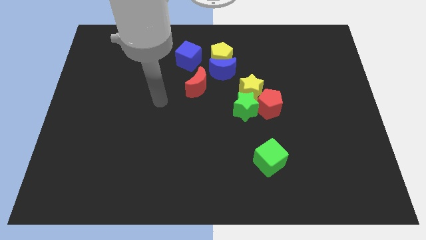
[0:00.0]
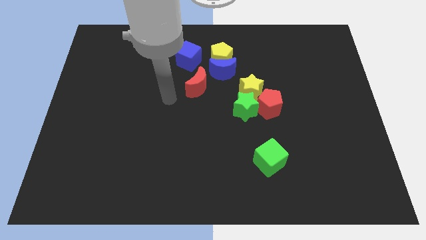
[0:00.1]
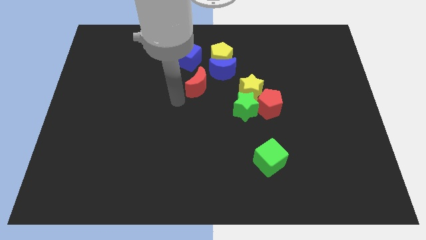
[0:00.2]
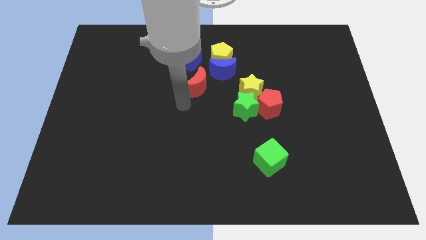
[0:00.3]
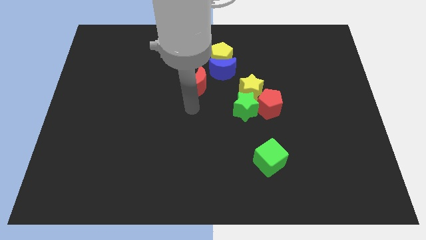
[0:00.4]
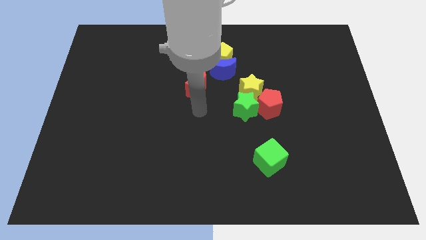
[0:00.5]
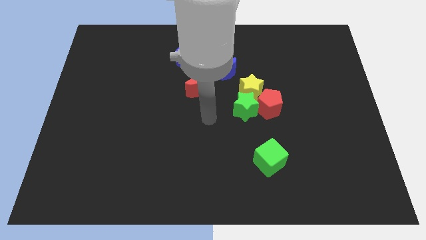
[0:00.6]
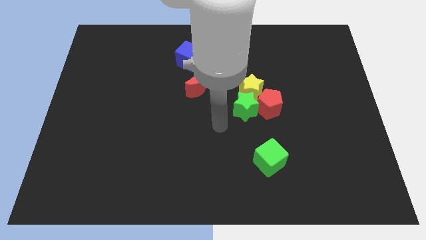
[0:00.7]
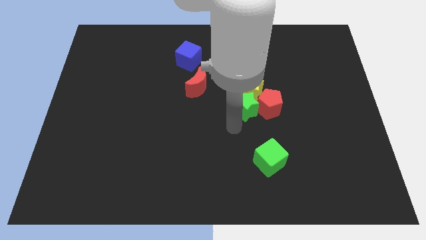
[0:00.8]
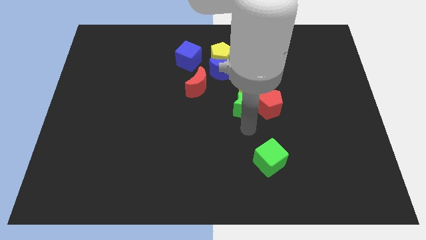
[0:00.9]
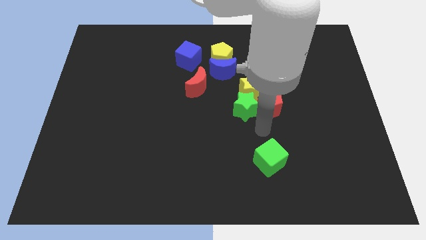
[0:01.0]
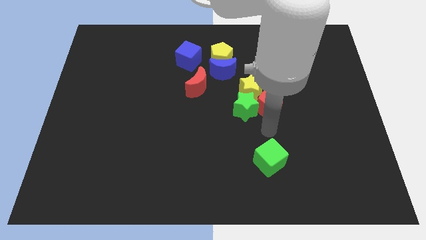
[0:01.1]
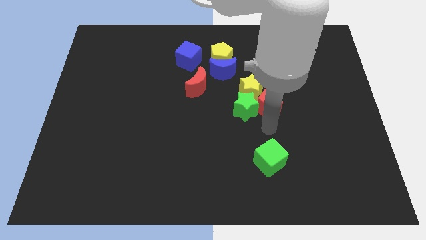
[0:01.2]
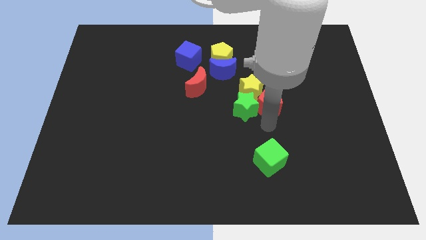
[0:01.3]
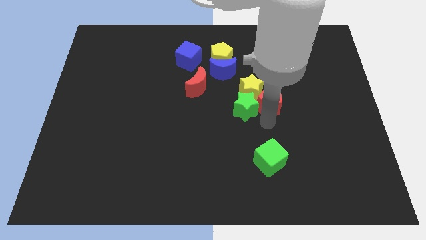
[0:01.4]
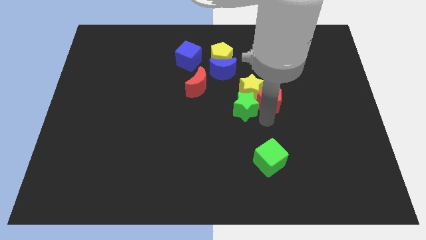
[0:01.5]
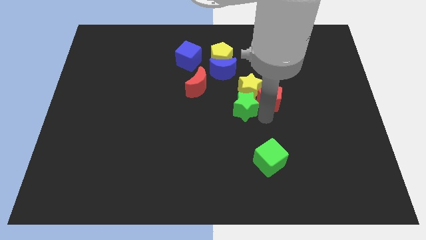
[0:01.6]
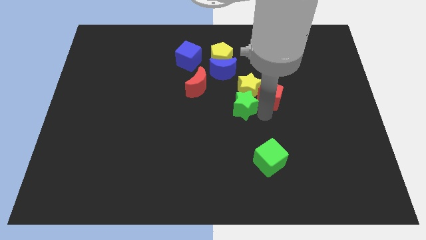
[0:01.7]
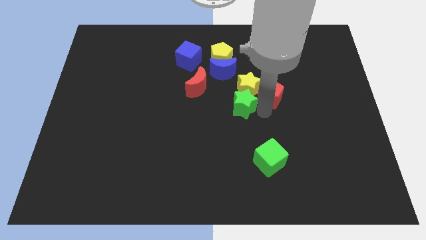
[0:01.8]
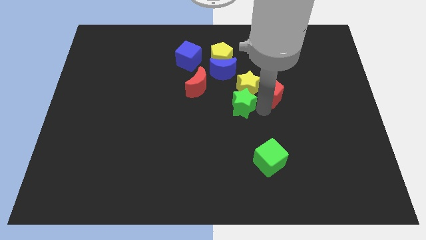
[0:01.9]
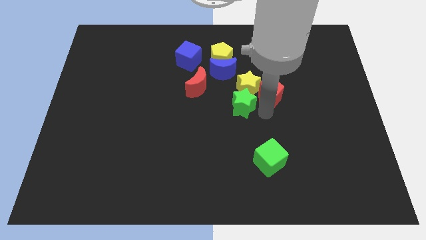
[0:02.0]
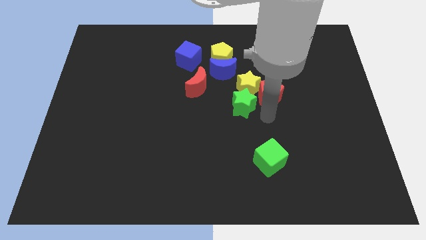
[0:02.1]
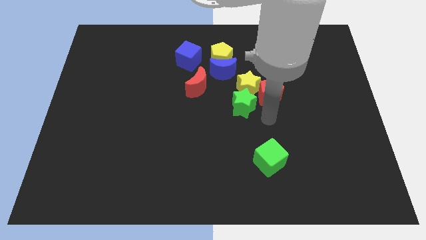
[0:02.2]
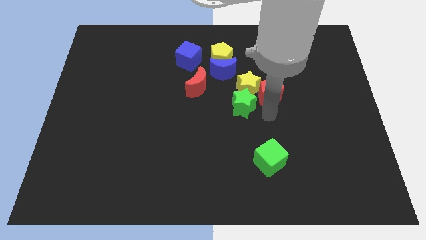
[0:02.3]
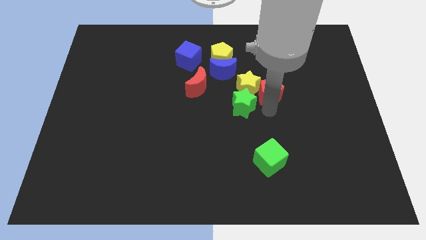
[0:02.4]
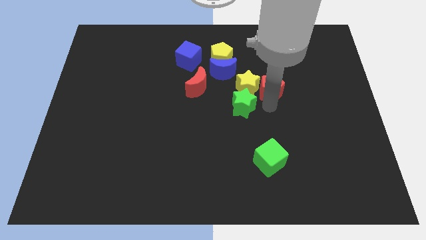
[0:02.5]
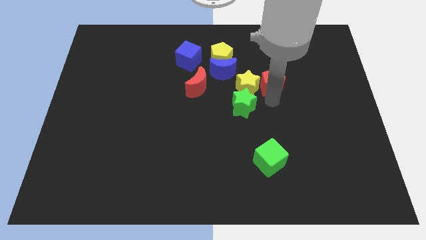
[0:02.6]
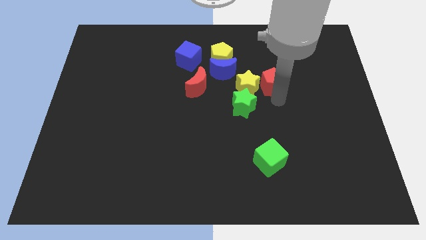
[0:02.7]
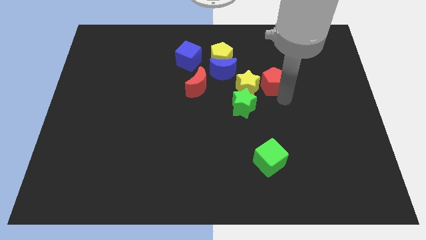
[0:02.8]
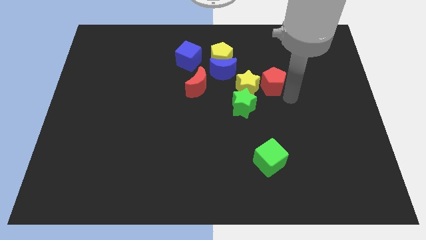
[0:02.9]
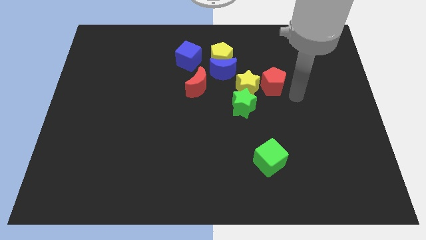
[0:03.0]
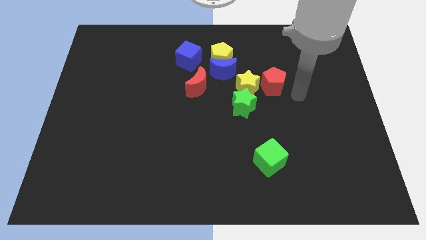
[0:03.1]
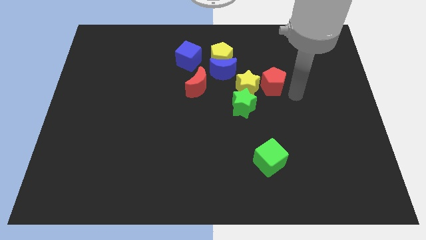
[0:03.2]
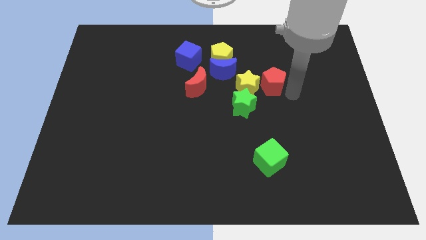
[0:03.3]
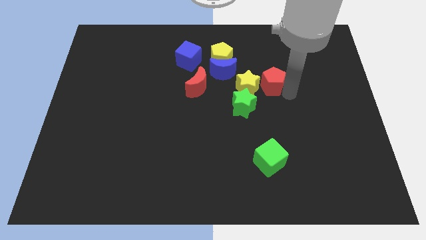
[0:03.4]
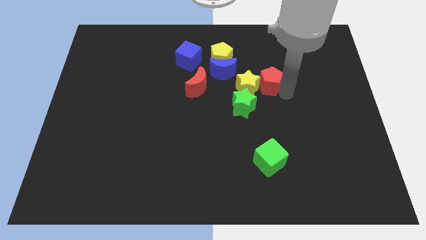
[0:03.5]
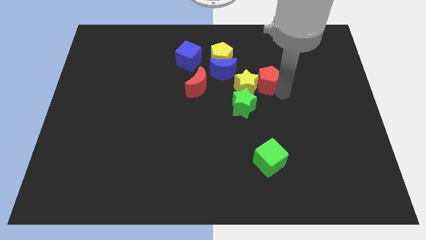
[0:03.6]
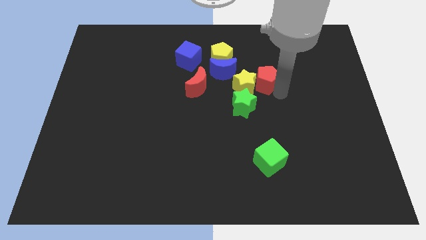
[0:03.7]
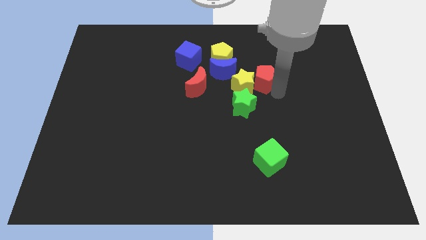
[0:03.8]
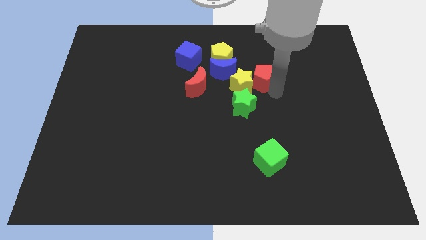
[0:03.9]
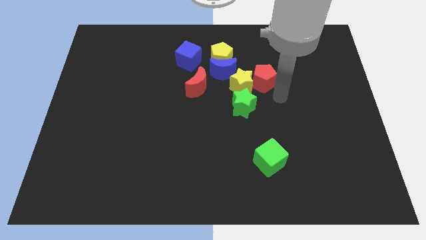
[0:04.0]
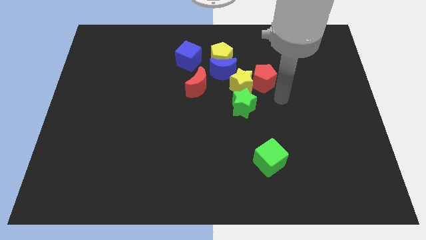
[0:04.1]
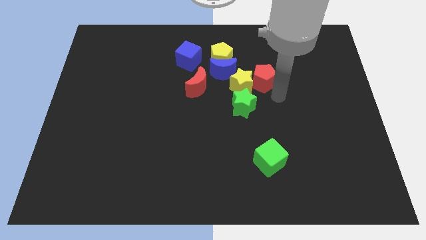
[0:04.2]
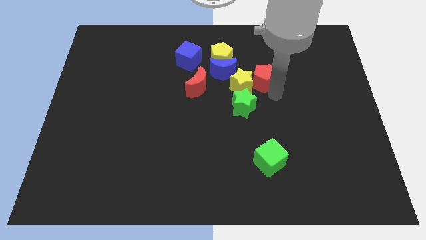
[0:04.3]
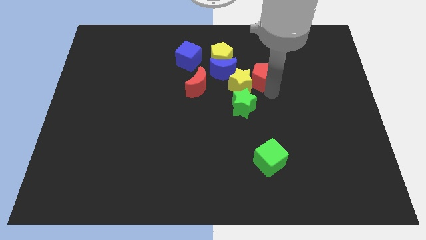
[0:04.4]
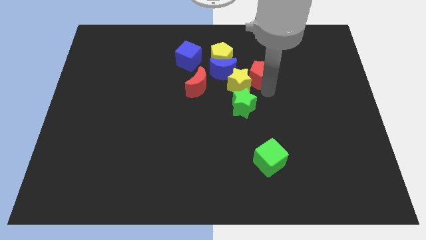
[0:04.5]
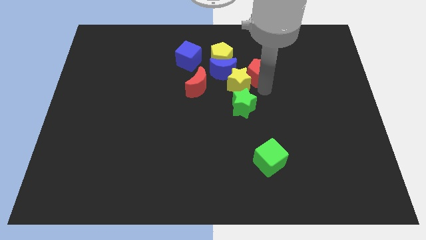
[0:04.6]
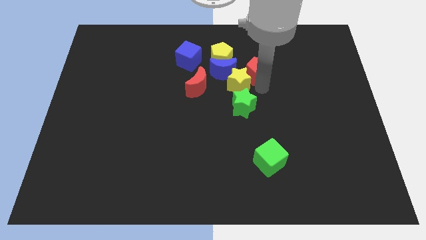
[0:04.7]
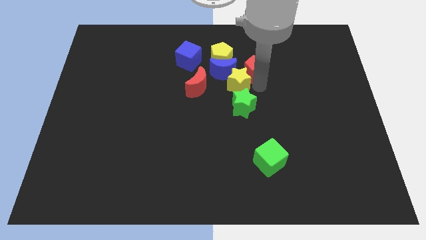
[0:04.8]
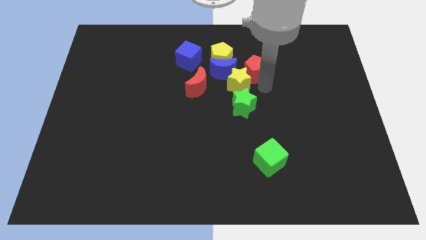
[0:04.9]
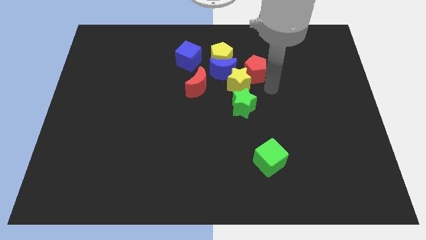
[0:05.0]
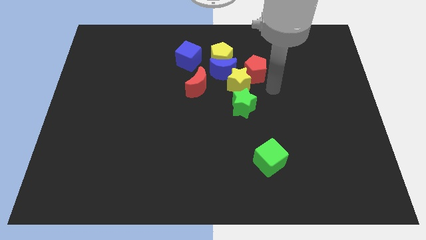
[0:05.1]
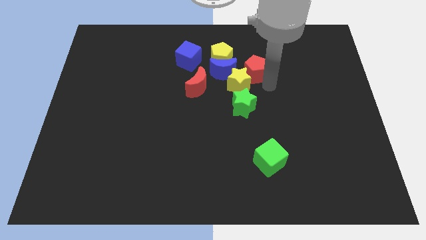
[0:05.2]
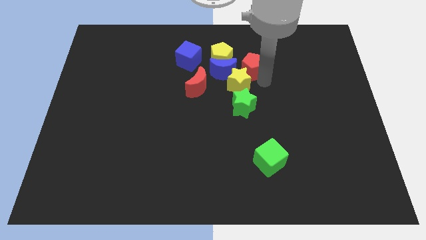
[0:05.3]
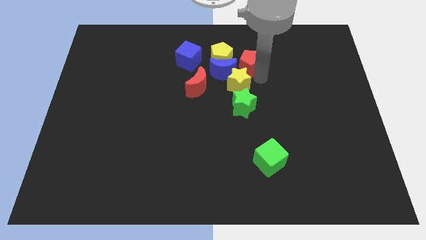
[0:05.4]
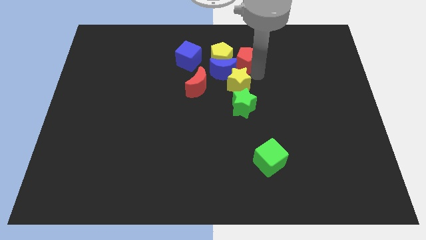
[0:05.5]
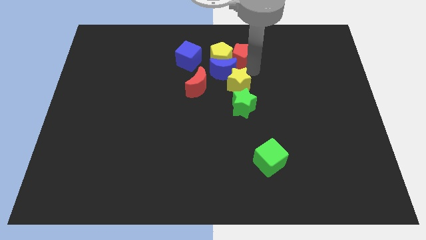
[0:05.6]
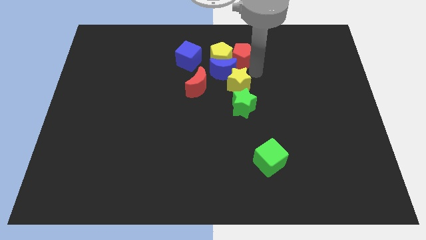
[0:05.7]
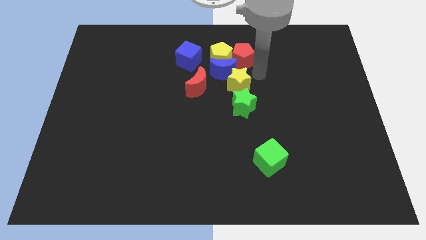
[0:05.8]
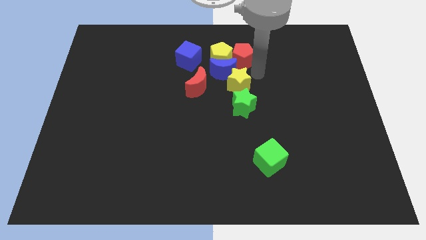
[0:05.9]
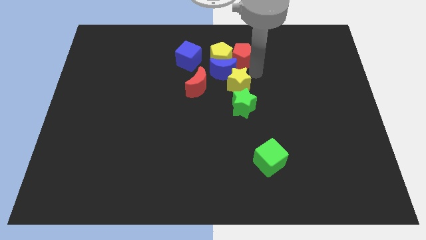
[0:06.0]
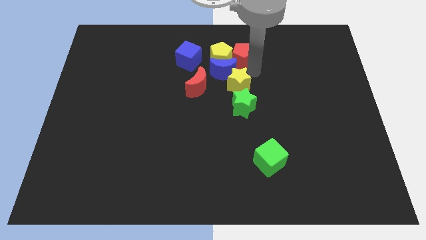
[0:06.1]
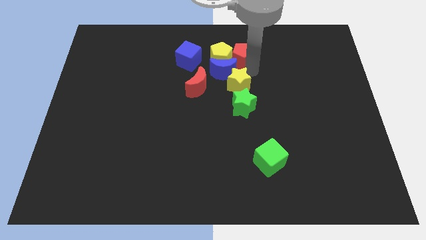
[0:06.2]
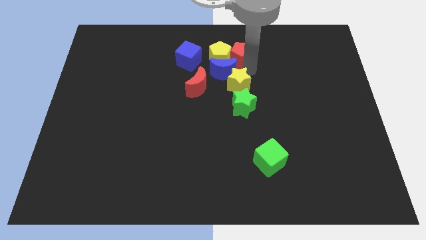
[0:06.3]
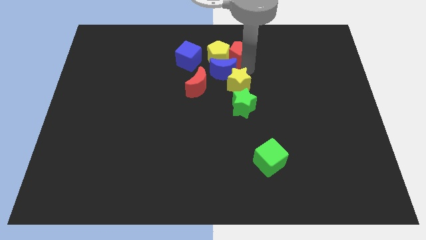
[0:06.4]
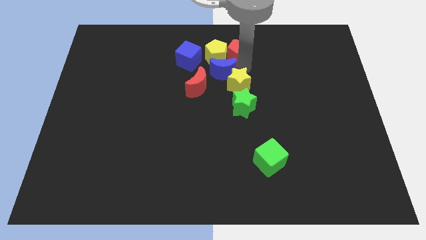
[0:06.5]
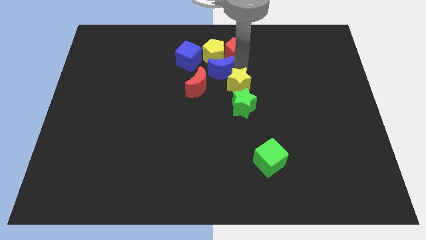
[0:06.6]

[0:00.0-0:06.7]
slide the red pentagon to the towards your base

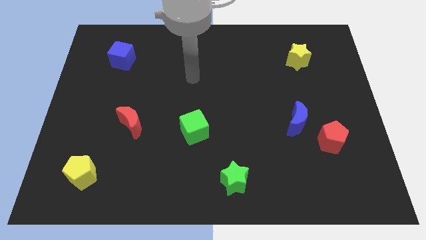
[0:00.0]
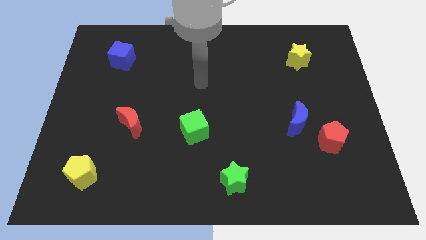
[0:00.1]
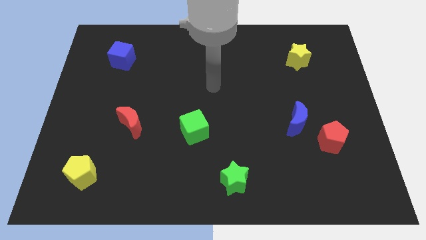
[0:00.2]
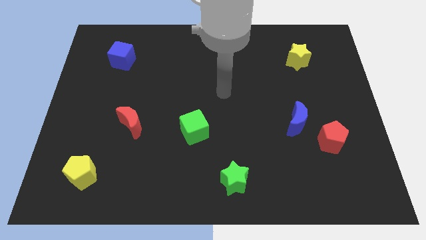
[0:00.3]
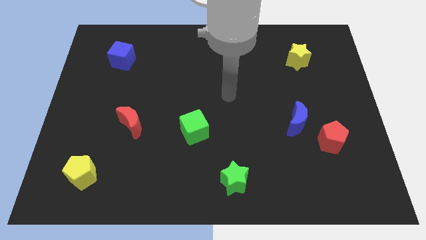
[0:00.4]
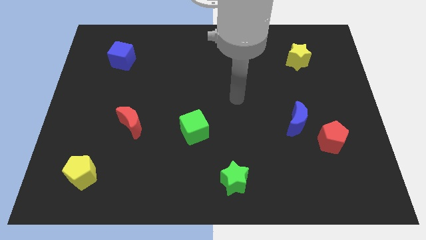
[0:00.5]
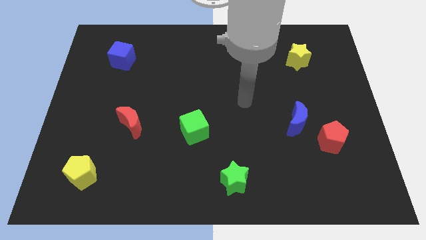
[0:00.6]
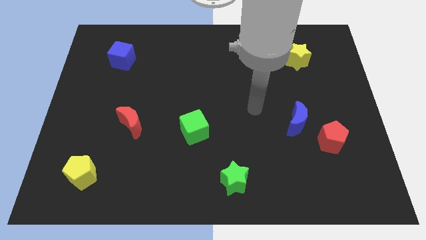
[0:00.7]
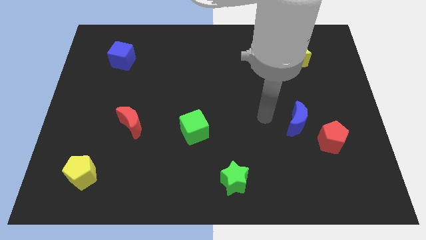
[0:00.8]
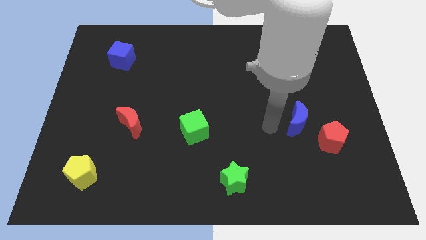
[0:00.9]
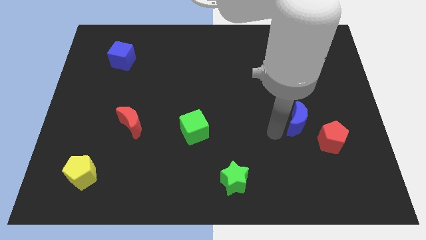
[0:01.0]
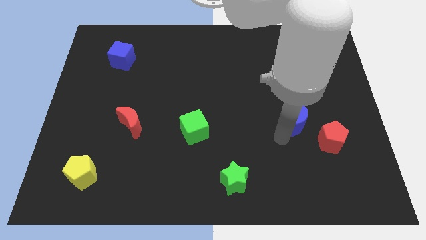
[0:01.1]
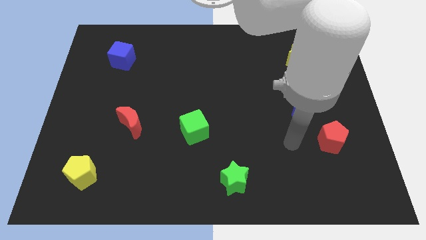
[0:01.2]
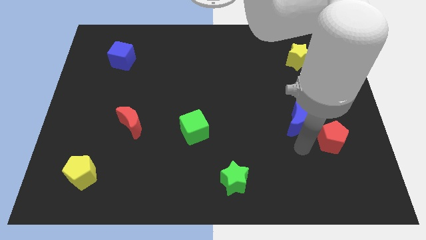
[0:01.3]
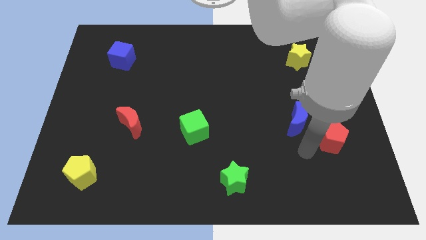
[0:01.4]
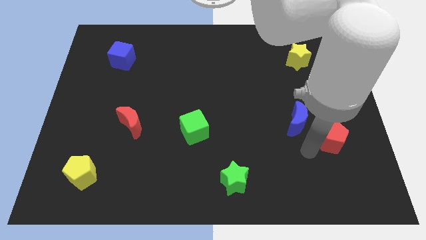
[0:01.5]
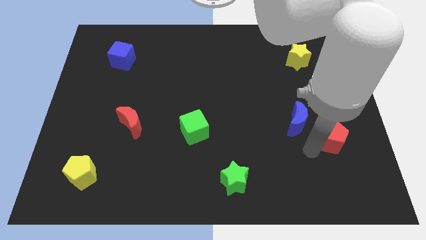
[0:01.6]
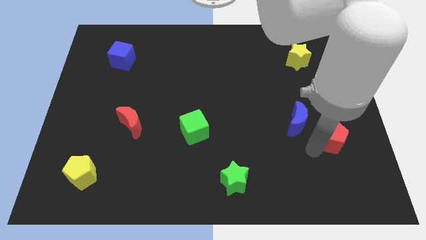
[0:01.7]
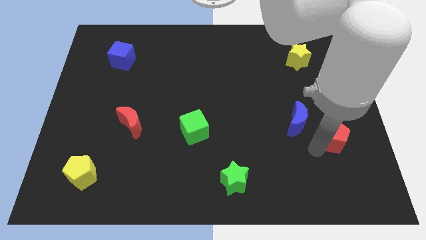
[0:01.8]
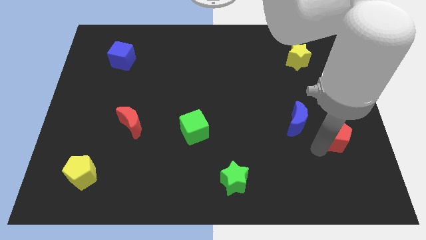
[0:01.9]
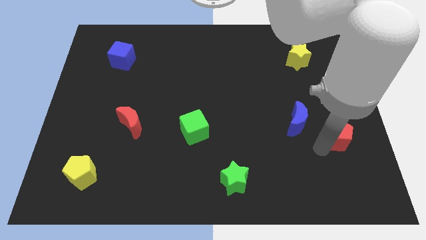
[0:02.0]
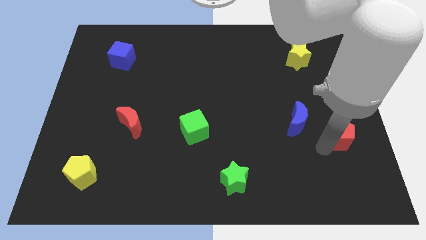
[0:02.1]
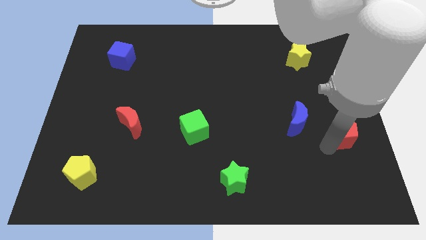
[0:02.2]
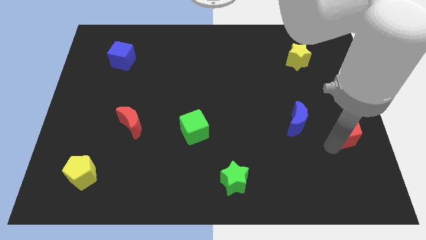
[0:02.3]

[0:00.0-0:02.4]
move the red pentagon to the right side of the board
